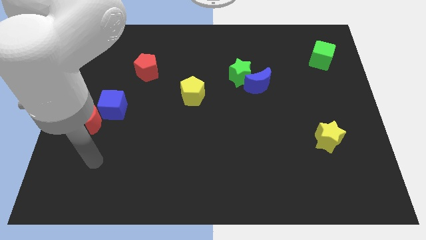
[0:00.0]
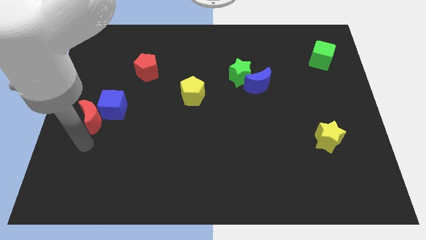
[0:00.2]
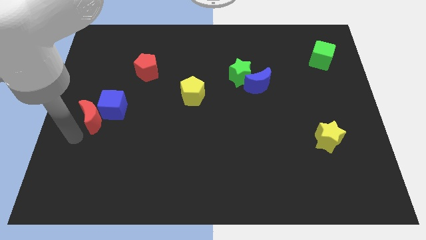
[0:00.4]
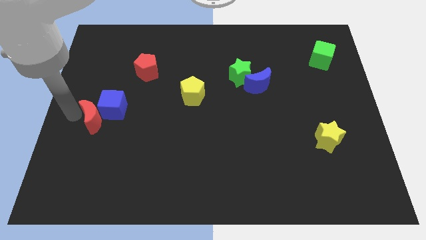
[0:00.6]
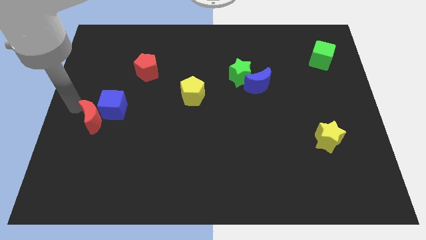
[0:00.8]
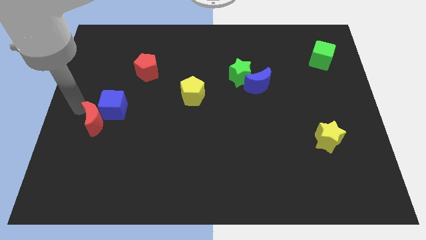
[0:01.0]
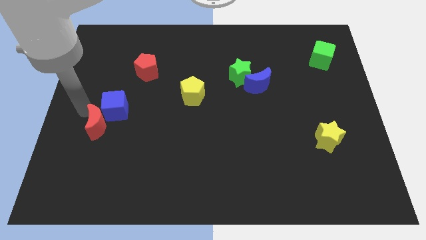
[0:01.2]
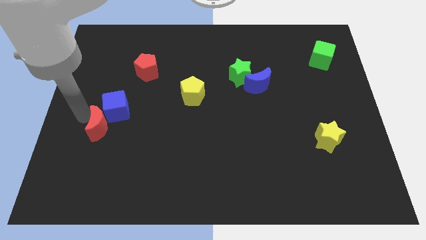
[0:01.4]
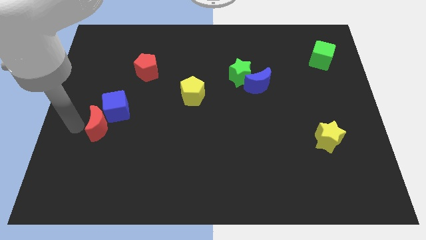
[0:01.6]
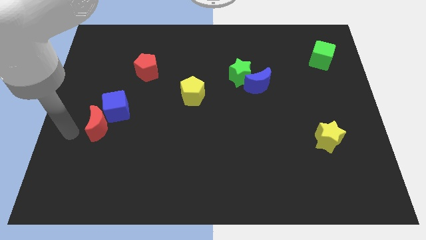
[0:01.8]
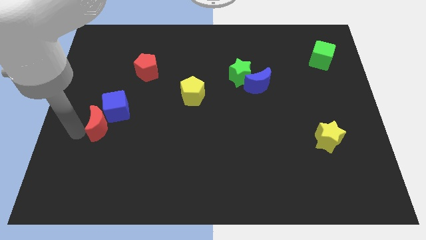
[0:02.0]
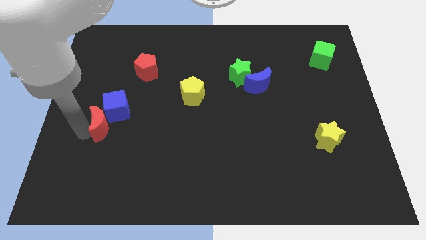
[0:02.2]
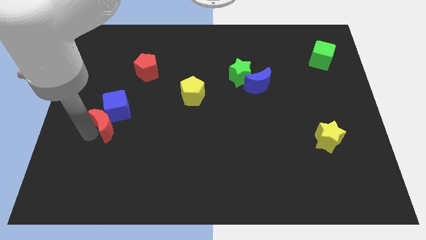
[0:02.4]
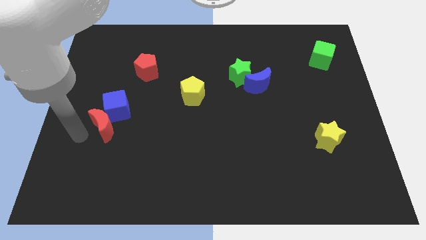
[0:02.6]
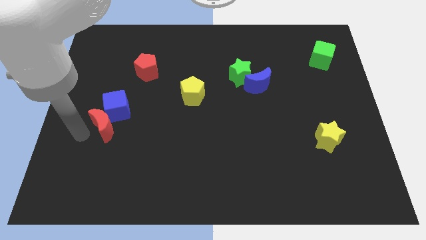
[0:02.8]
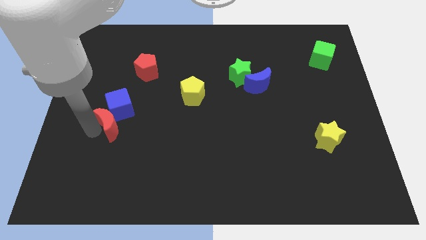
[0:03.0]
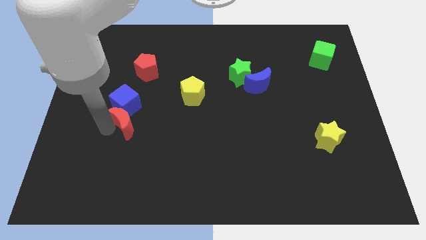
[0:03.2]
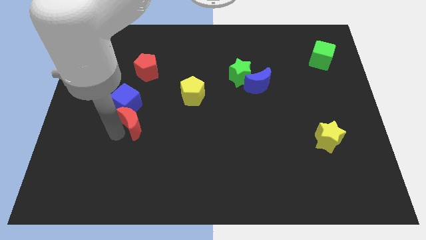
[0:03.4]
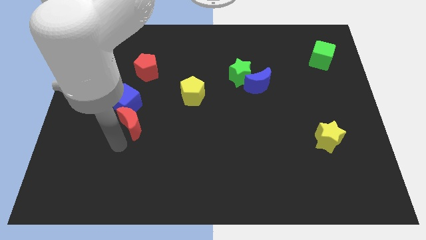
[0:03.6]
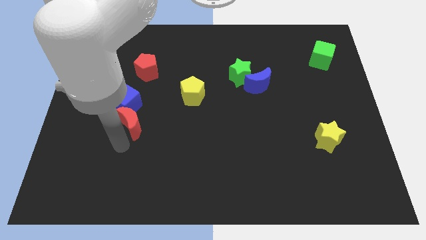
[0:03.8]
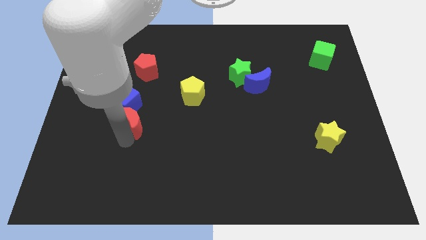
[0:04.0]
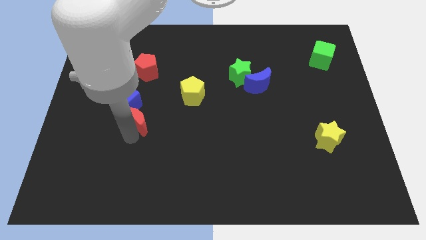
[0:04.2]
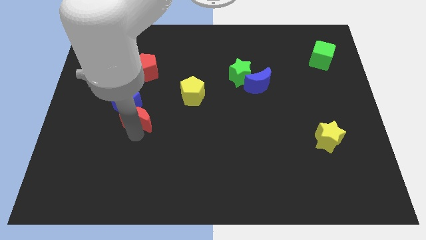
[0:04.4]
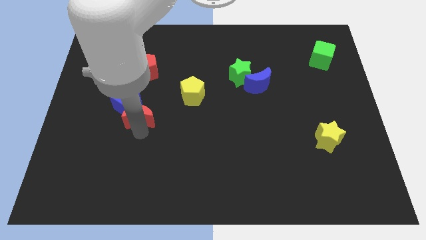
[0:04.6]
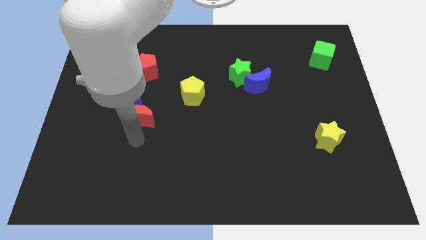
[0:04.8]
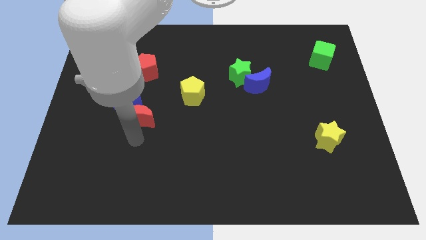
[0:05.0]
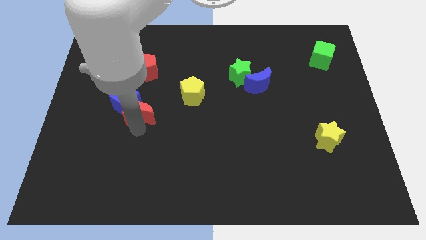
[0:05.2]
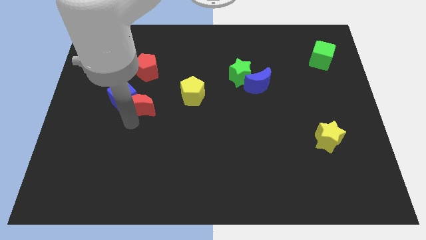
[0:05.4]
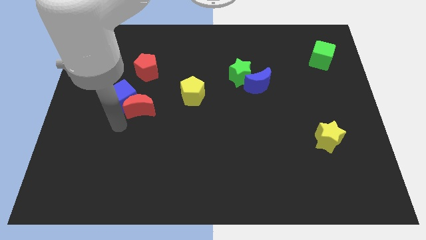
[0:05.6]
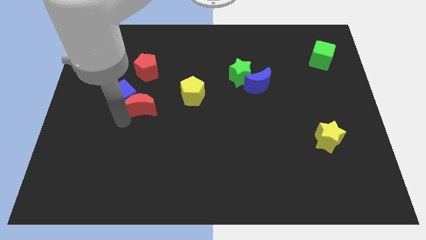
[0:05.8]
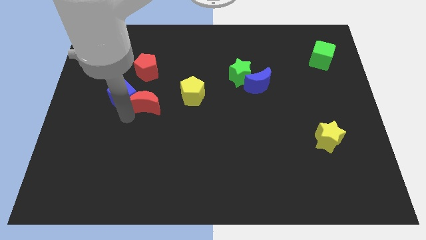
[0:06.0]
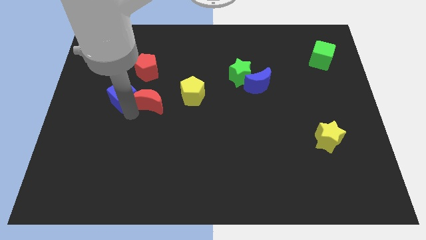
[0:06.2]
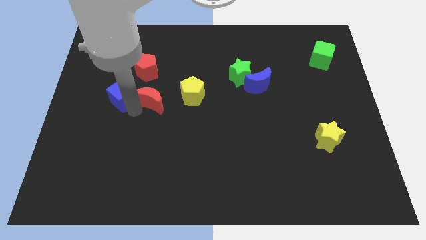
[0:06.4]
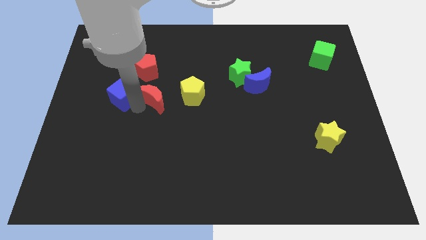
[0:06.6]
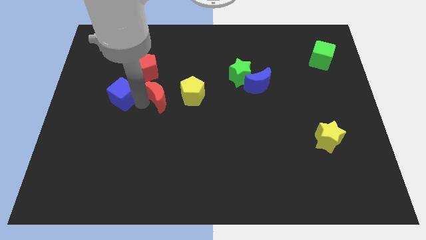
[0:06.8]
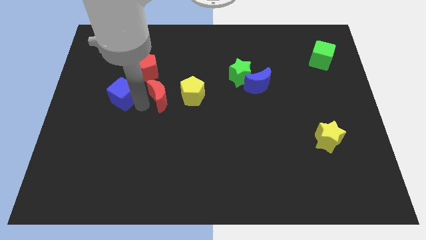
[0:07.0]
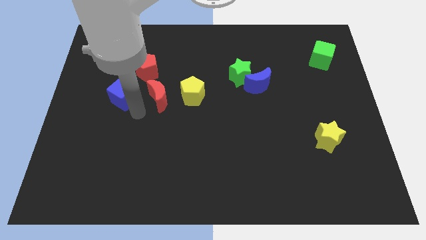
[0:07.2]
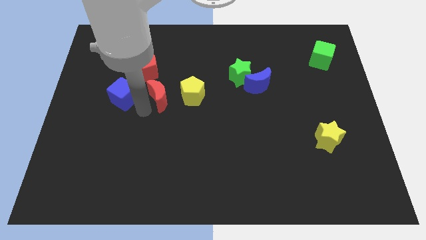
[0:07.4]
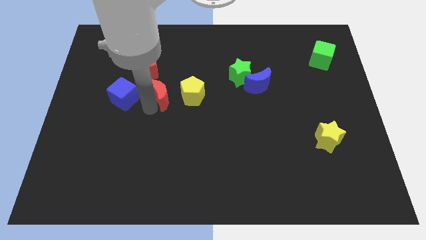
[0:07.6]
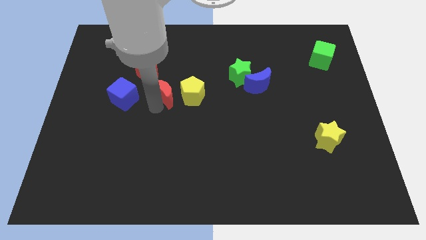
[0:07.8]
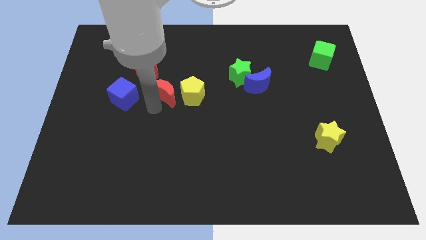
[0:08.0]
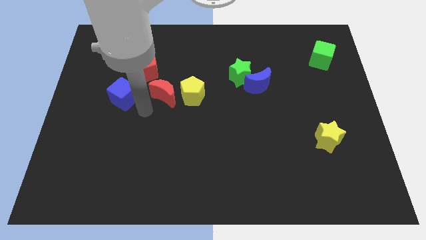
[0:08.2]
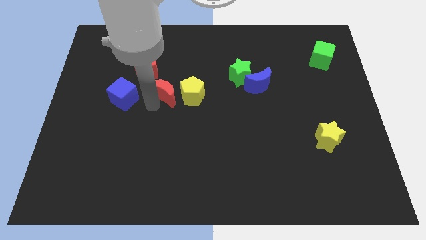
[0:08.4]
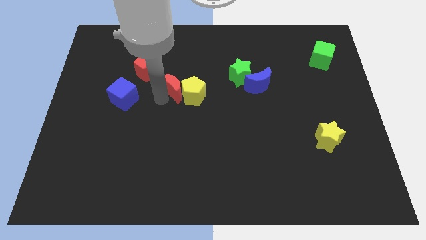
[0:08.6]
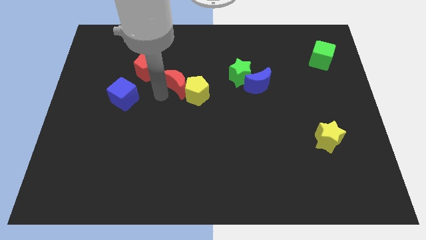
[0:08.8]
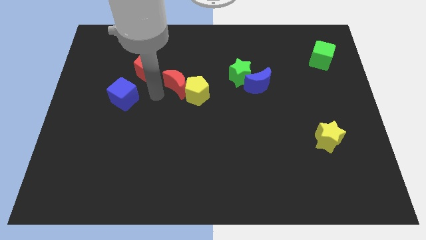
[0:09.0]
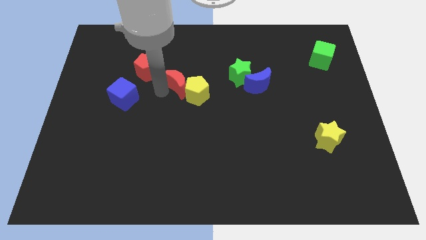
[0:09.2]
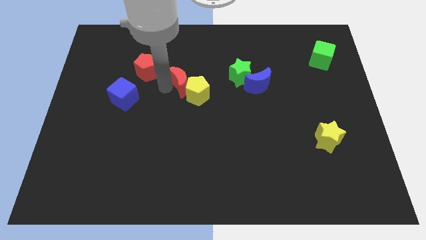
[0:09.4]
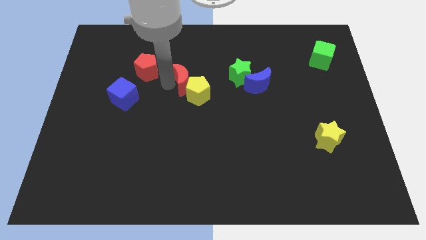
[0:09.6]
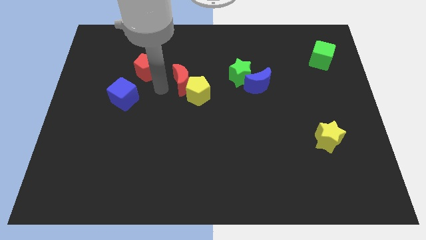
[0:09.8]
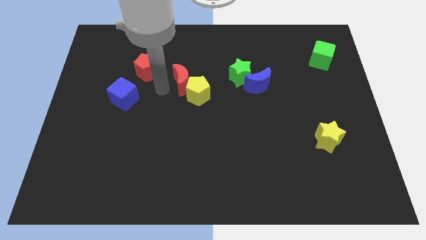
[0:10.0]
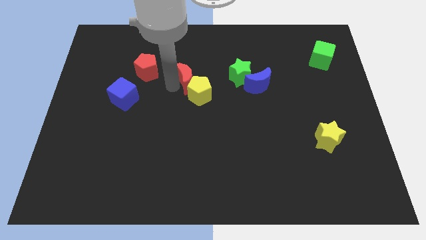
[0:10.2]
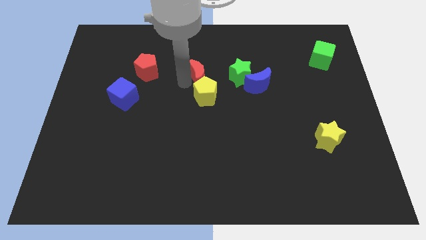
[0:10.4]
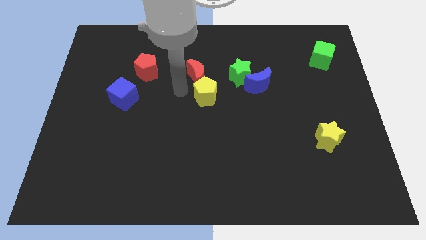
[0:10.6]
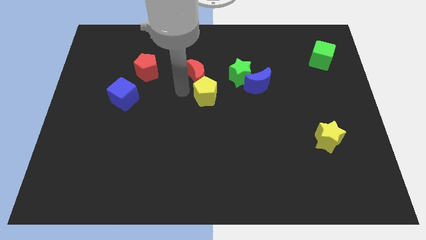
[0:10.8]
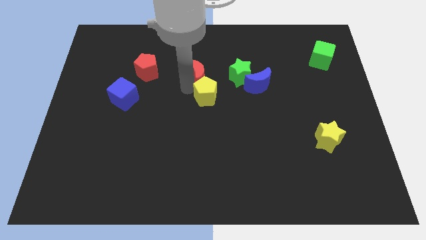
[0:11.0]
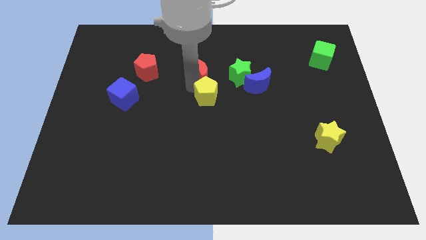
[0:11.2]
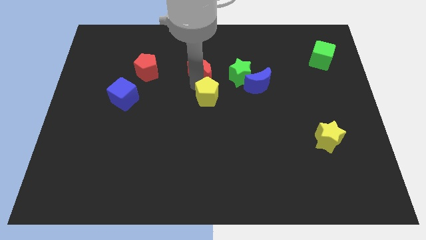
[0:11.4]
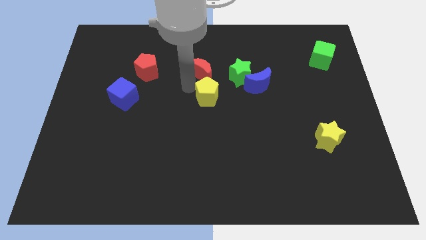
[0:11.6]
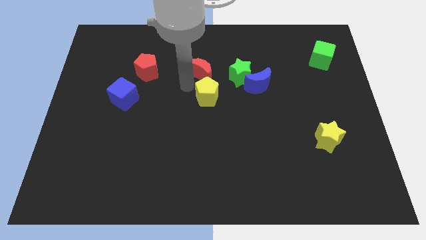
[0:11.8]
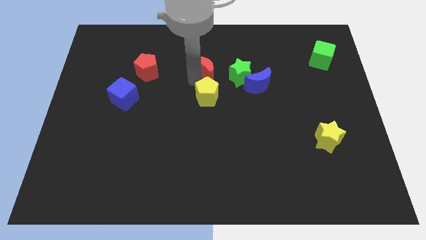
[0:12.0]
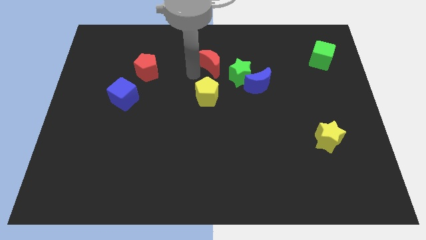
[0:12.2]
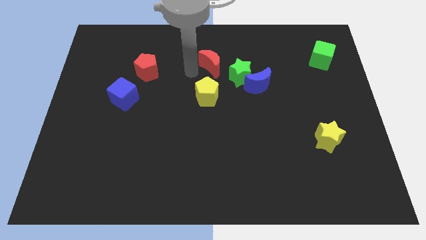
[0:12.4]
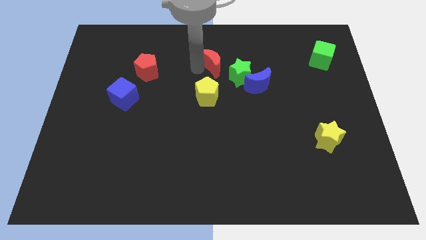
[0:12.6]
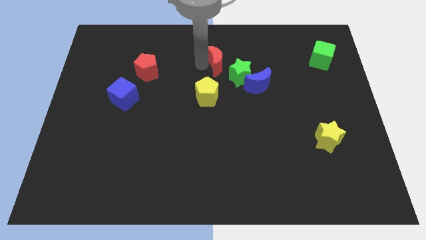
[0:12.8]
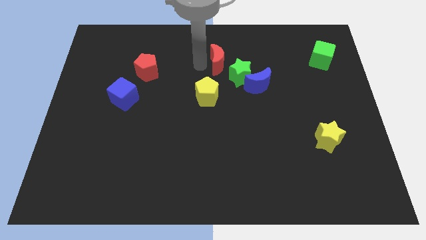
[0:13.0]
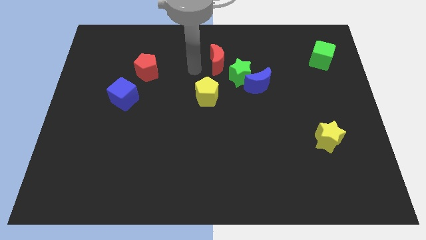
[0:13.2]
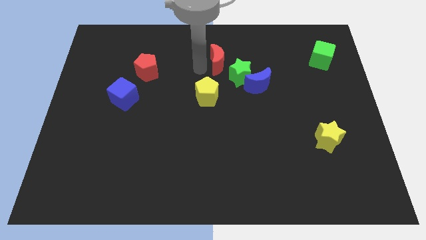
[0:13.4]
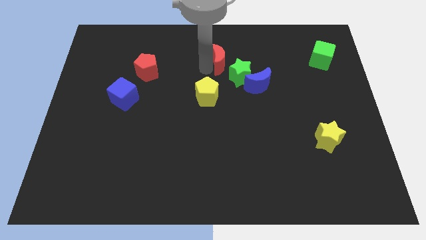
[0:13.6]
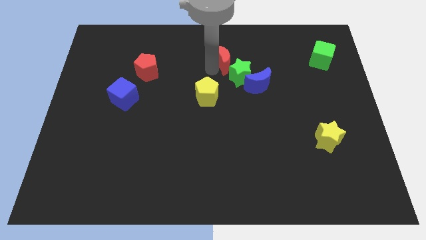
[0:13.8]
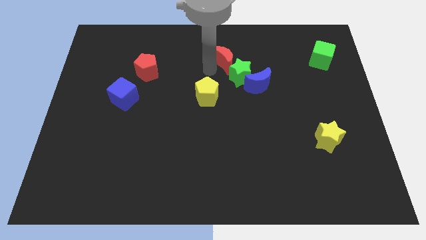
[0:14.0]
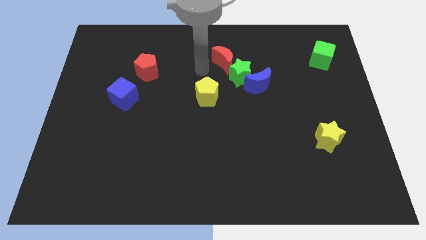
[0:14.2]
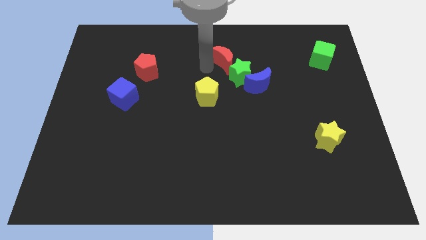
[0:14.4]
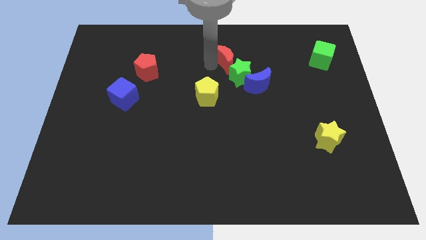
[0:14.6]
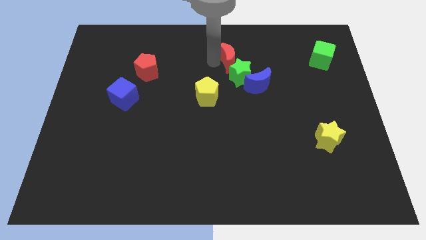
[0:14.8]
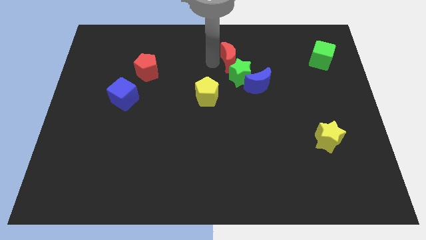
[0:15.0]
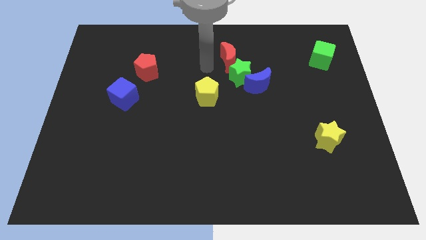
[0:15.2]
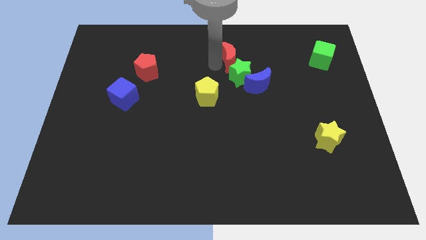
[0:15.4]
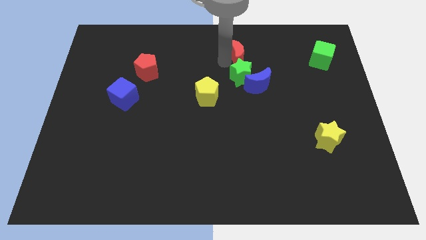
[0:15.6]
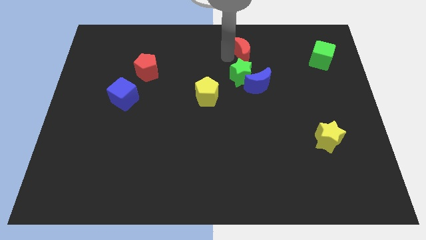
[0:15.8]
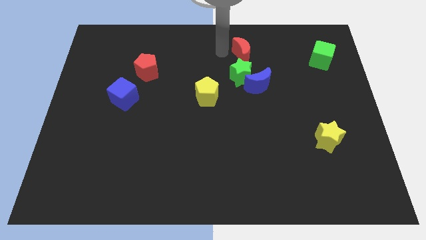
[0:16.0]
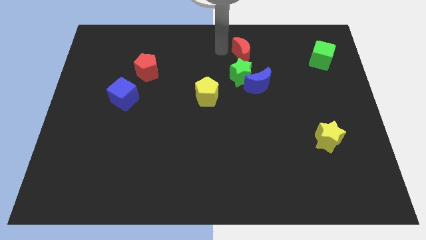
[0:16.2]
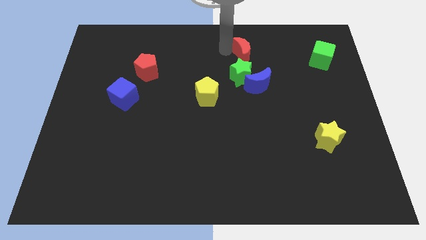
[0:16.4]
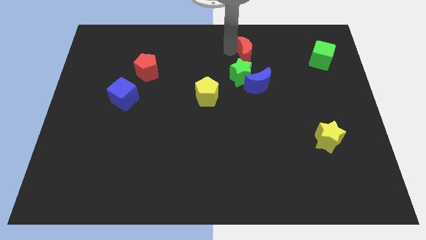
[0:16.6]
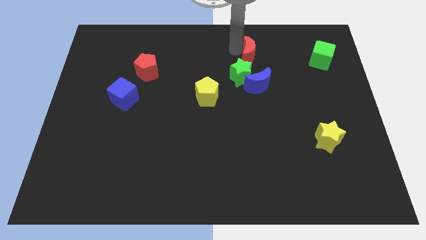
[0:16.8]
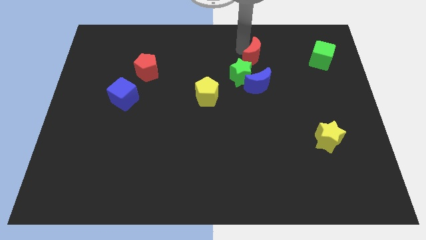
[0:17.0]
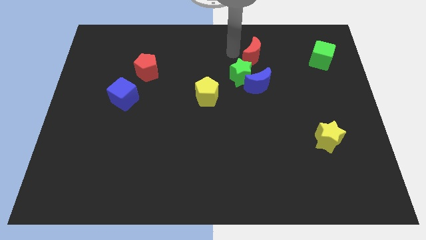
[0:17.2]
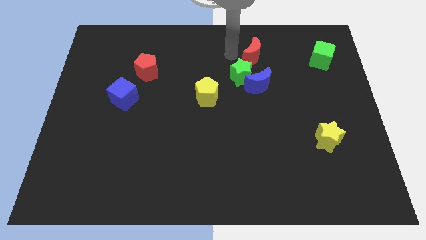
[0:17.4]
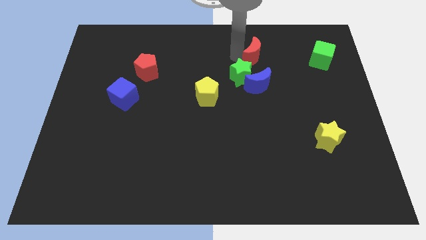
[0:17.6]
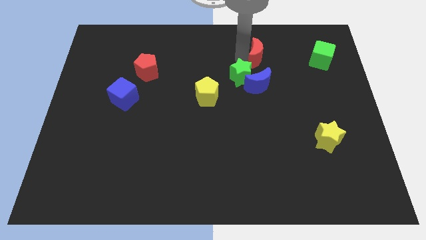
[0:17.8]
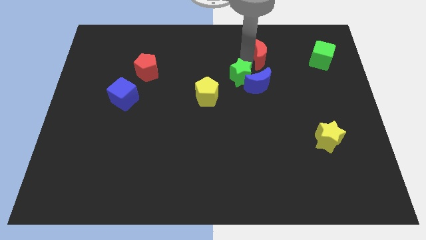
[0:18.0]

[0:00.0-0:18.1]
move the red moon to the left side of the green cube
